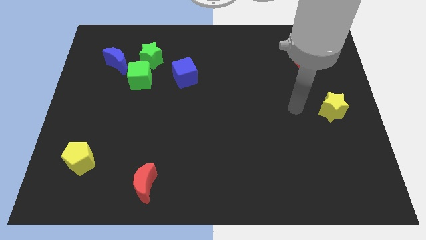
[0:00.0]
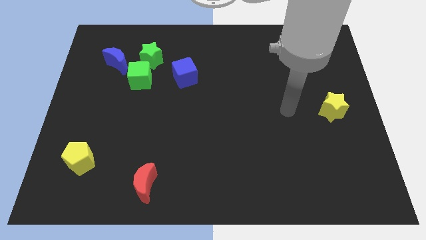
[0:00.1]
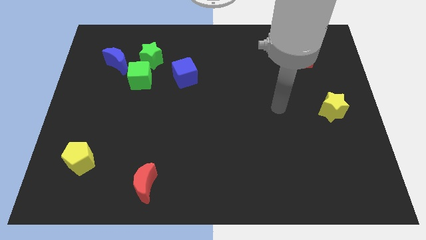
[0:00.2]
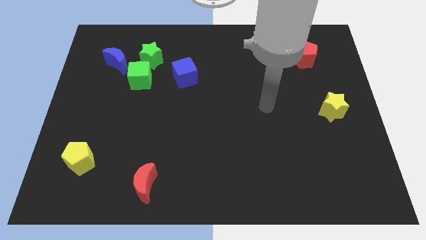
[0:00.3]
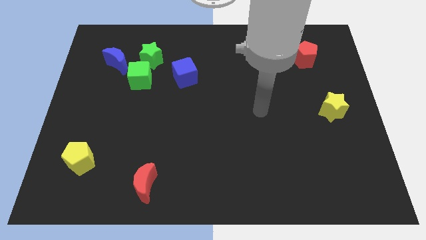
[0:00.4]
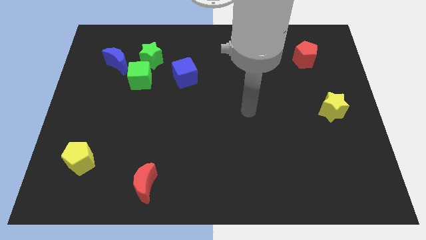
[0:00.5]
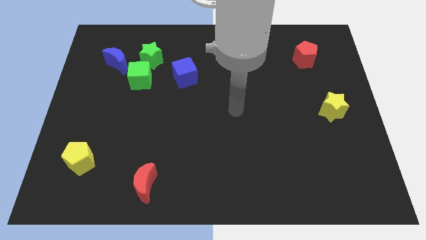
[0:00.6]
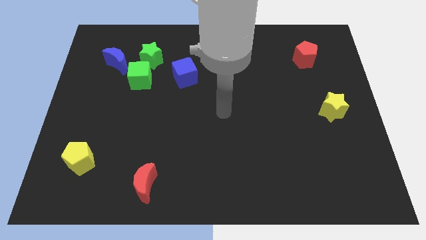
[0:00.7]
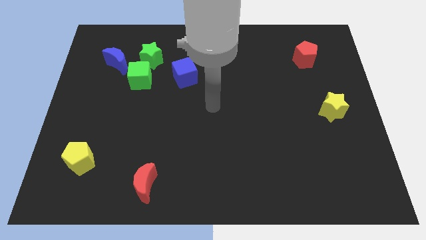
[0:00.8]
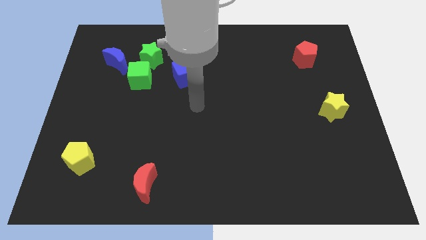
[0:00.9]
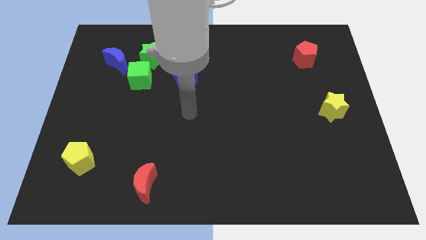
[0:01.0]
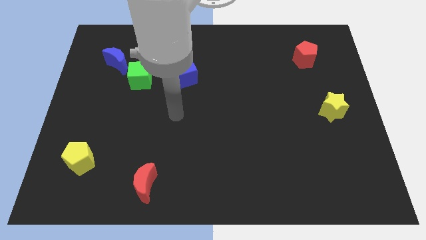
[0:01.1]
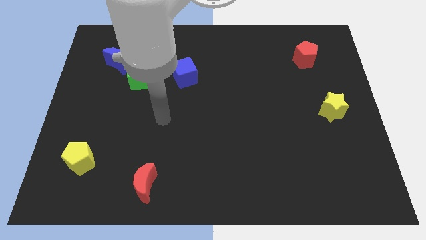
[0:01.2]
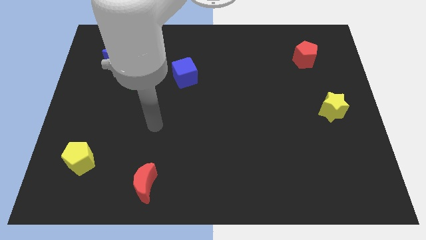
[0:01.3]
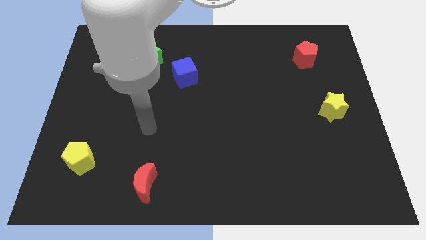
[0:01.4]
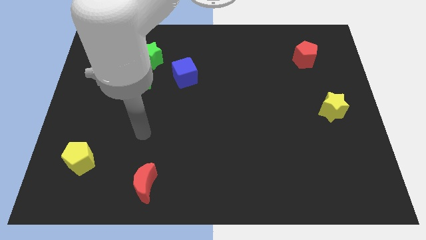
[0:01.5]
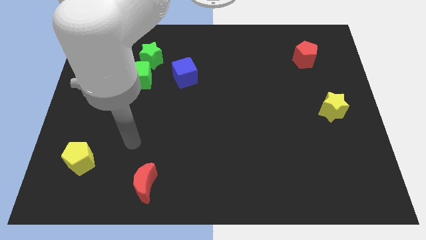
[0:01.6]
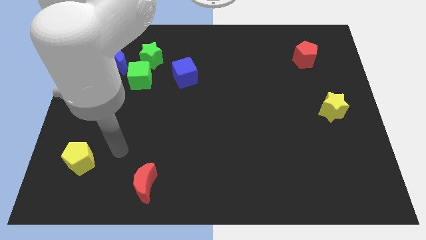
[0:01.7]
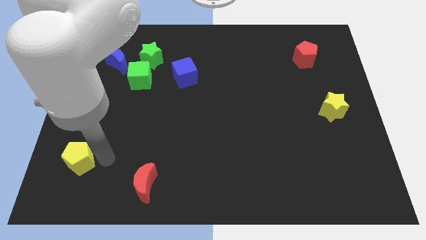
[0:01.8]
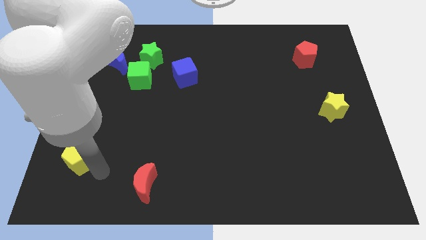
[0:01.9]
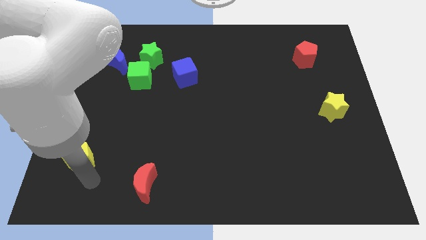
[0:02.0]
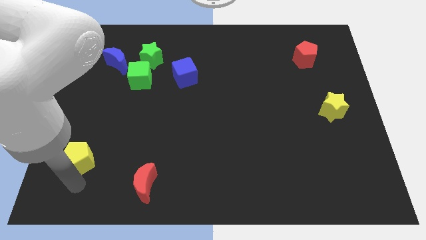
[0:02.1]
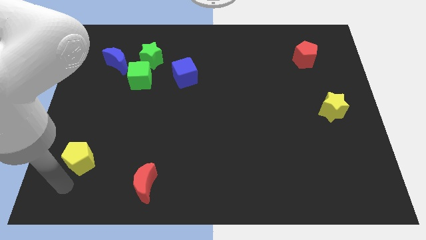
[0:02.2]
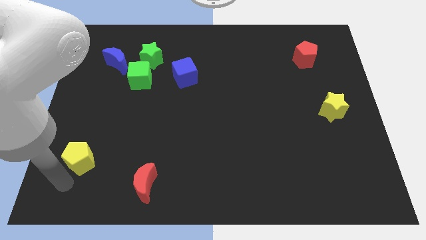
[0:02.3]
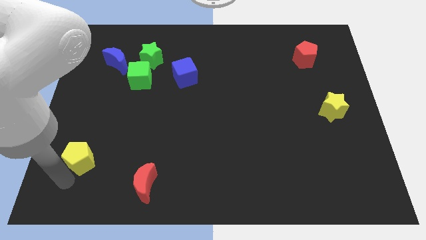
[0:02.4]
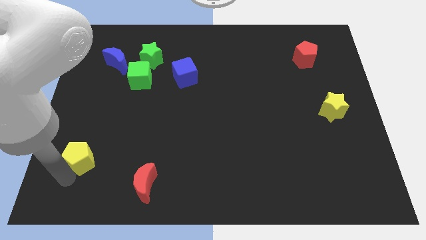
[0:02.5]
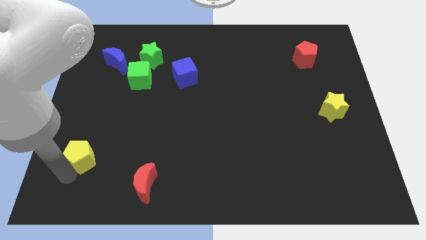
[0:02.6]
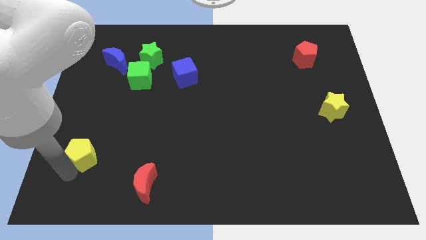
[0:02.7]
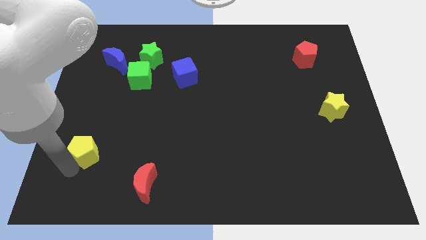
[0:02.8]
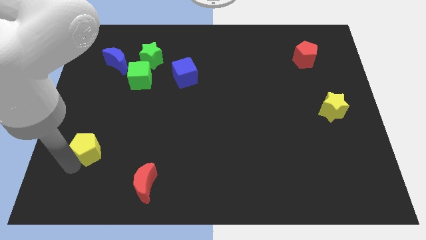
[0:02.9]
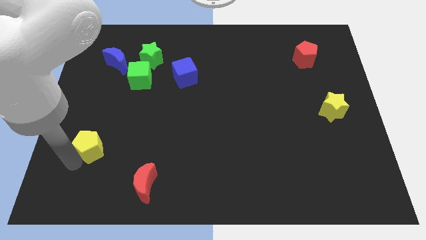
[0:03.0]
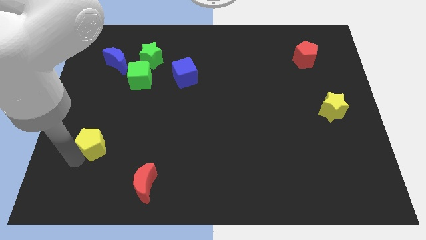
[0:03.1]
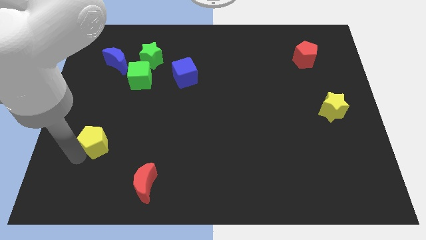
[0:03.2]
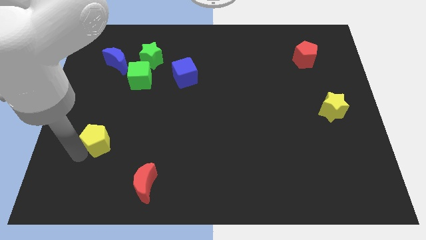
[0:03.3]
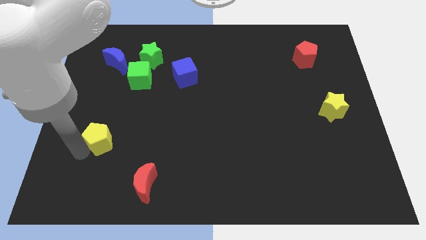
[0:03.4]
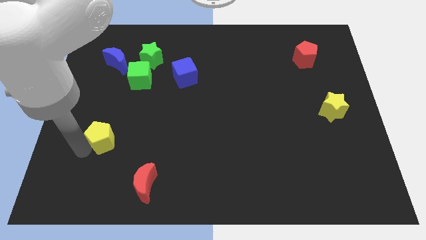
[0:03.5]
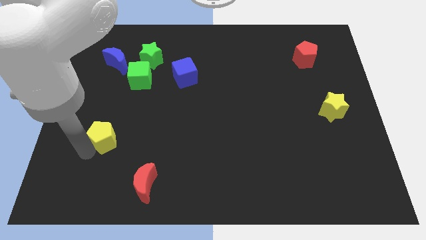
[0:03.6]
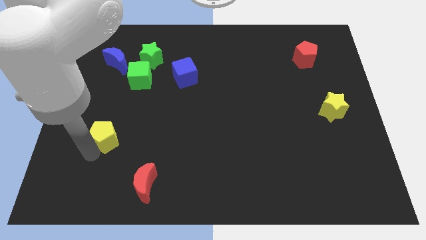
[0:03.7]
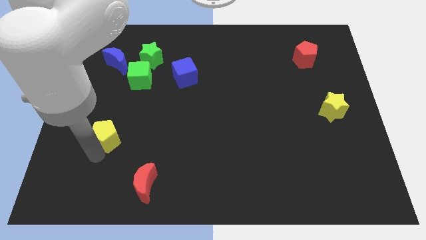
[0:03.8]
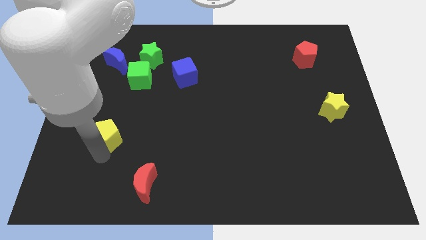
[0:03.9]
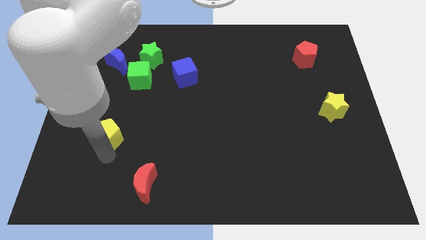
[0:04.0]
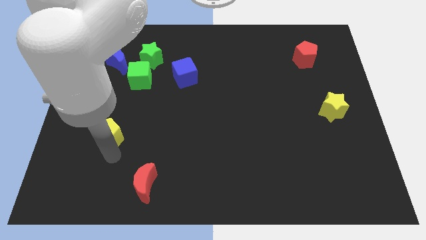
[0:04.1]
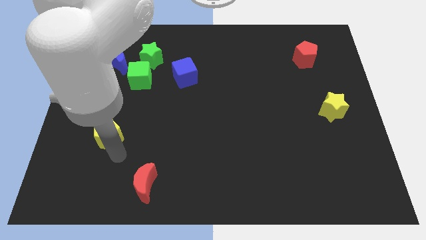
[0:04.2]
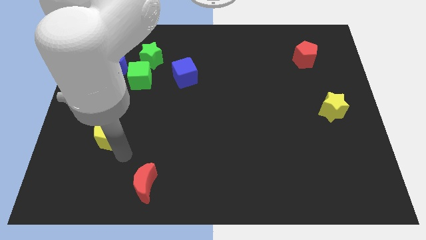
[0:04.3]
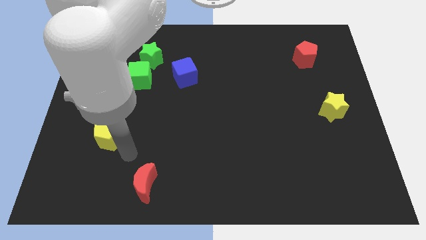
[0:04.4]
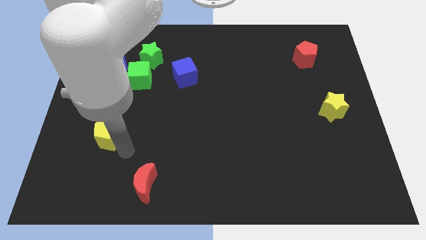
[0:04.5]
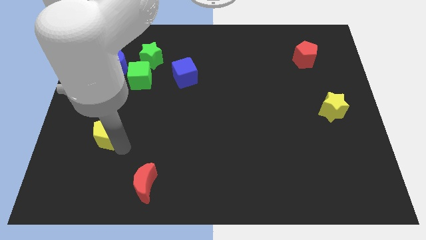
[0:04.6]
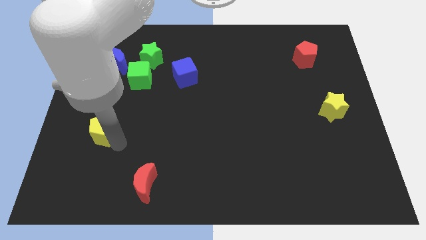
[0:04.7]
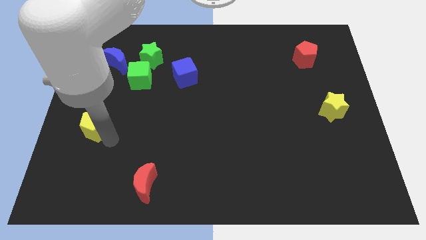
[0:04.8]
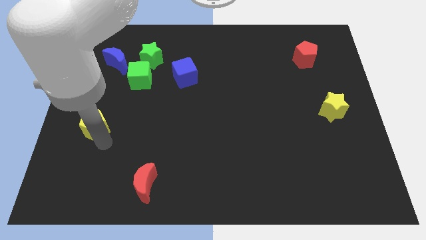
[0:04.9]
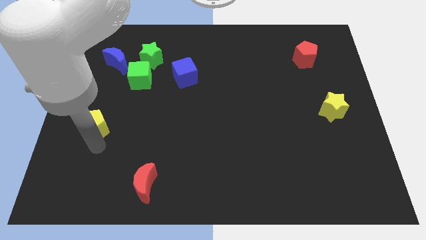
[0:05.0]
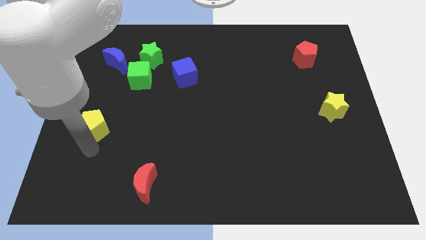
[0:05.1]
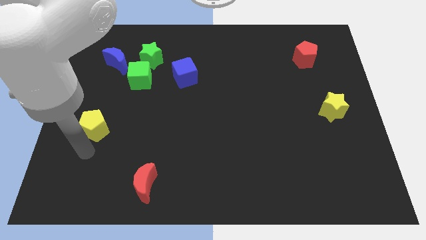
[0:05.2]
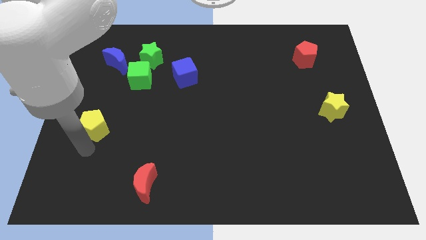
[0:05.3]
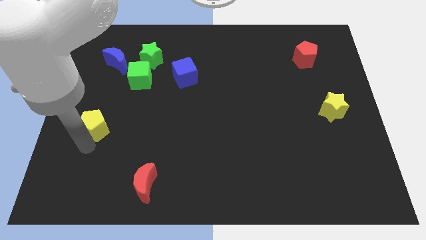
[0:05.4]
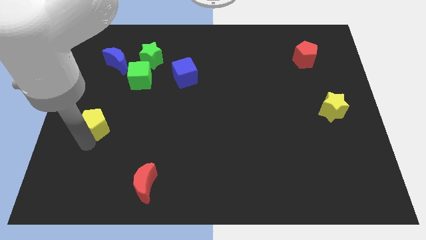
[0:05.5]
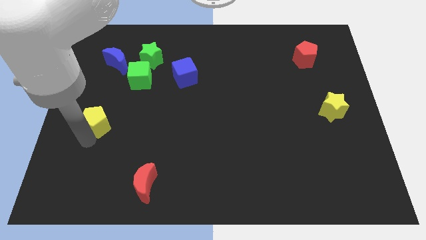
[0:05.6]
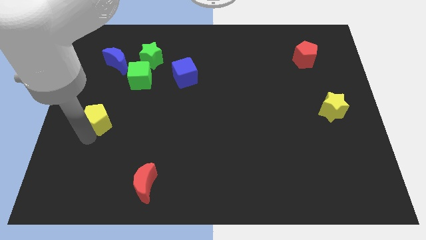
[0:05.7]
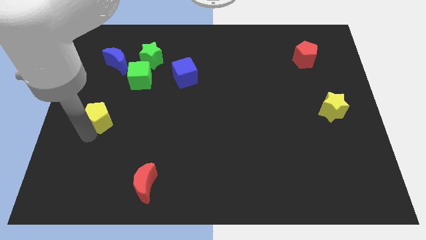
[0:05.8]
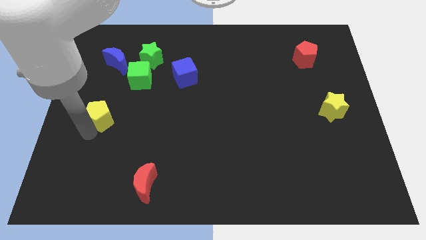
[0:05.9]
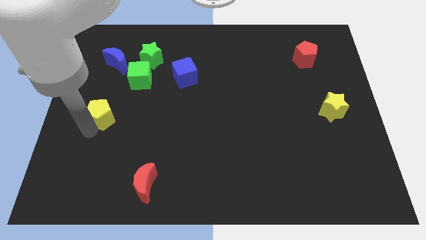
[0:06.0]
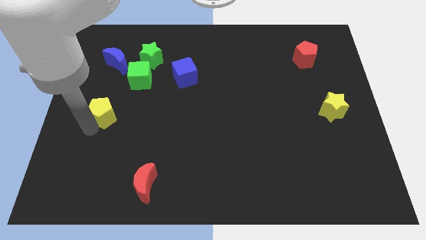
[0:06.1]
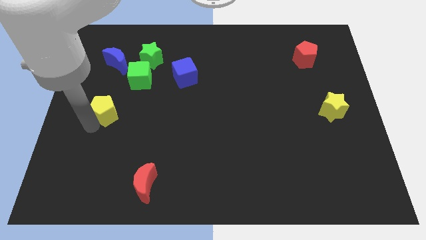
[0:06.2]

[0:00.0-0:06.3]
push the yellow pentagon to the bottom of the blue moon

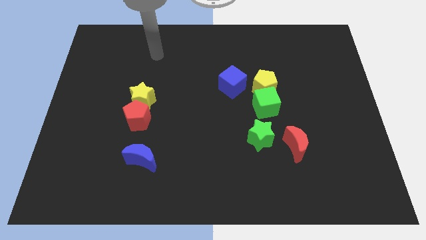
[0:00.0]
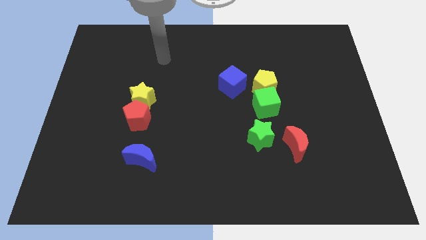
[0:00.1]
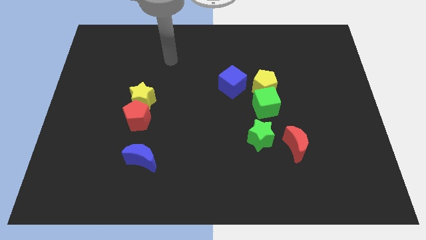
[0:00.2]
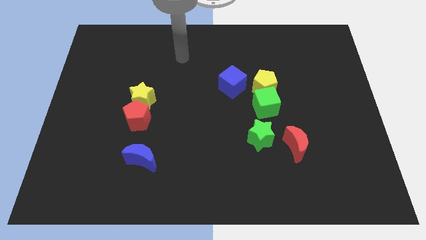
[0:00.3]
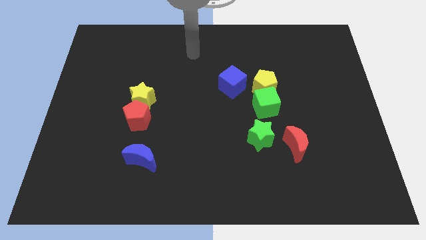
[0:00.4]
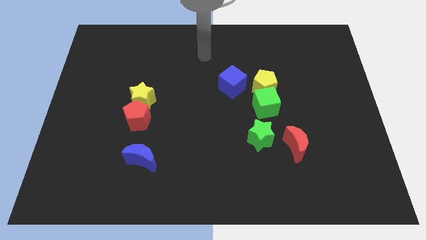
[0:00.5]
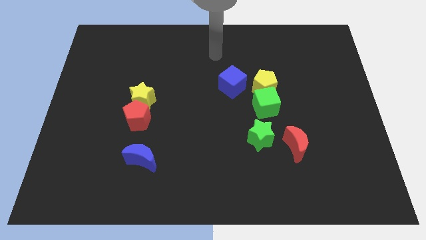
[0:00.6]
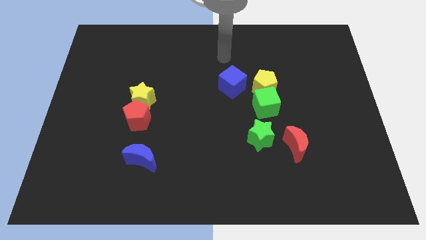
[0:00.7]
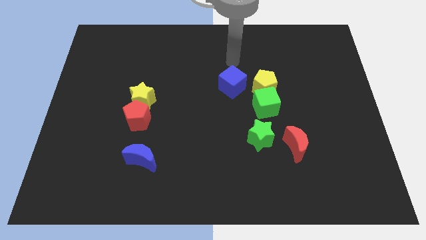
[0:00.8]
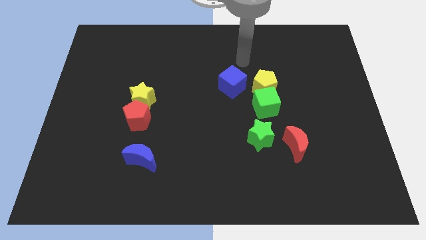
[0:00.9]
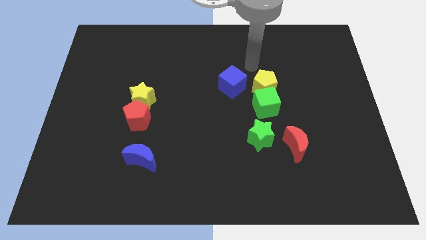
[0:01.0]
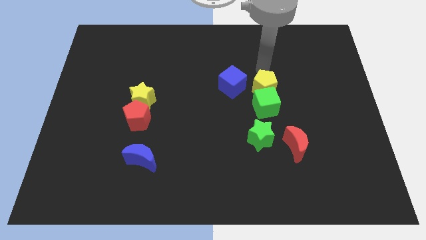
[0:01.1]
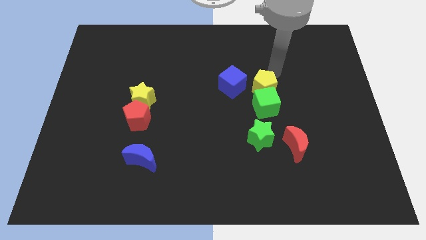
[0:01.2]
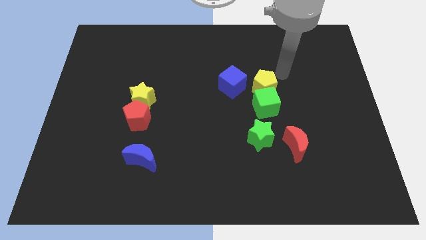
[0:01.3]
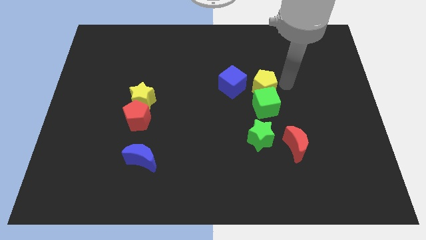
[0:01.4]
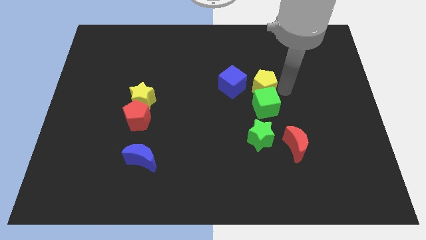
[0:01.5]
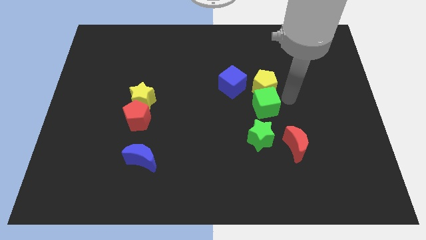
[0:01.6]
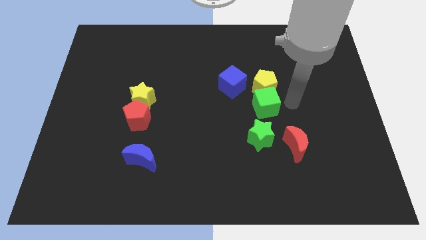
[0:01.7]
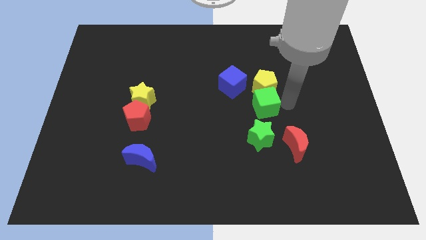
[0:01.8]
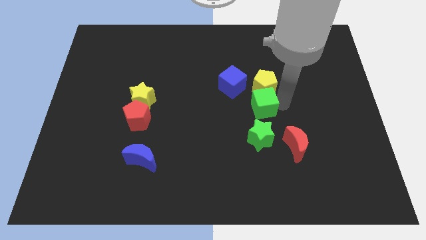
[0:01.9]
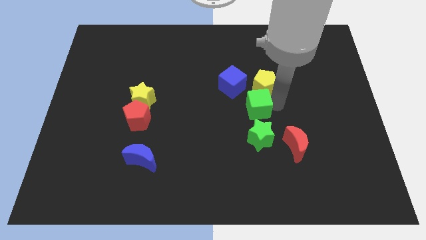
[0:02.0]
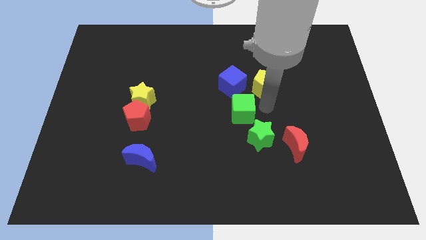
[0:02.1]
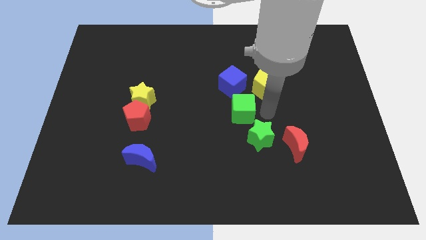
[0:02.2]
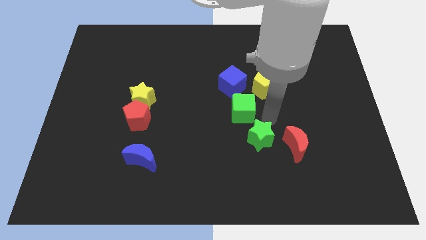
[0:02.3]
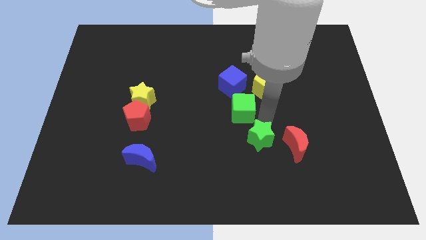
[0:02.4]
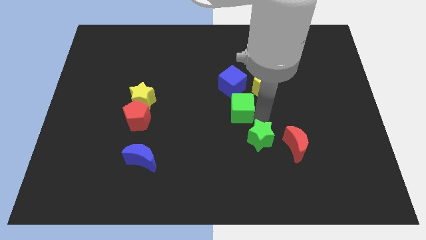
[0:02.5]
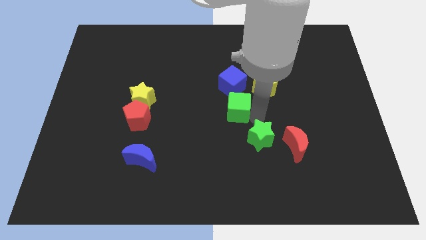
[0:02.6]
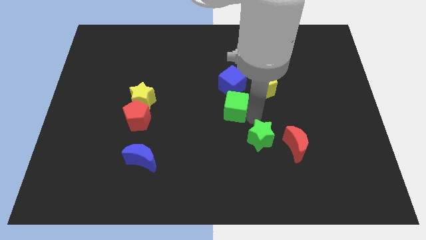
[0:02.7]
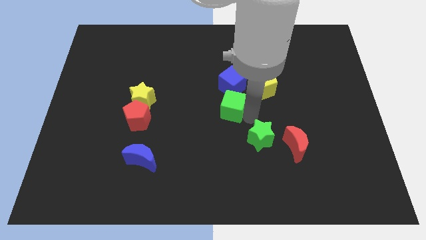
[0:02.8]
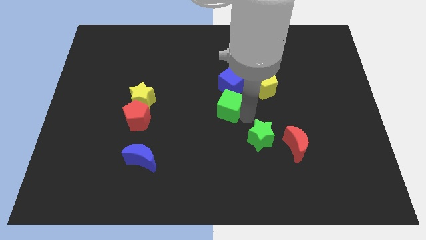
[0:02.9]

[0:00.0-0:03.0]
put the green cube to the bottom left of the blue cube
